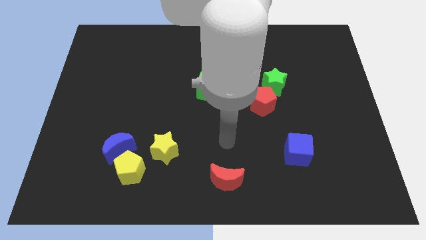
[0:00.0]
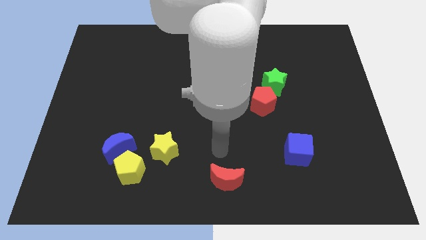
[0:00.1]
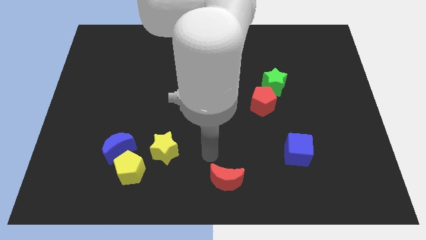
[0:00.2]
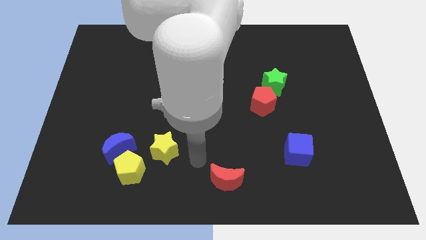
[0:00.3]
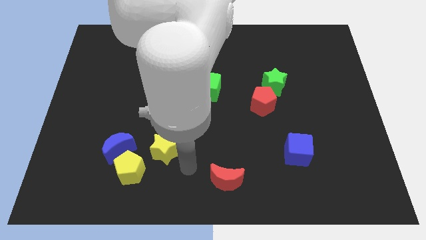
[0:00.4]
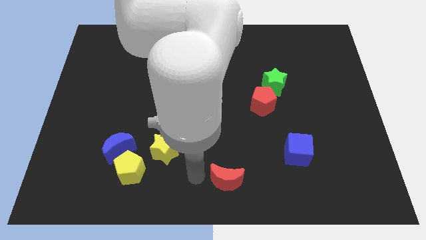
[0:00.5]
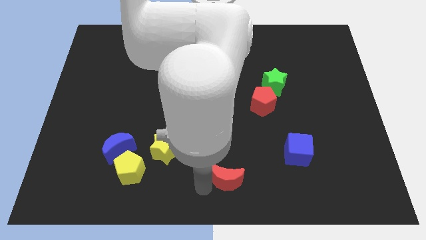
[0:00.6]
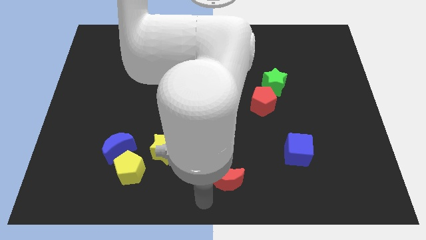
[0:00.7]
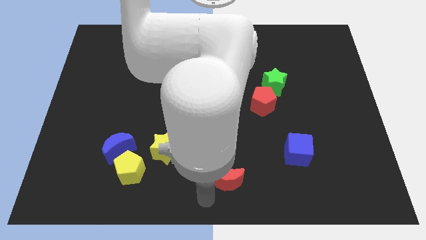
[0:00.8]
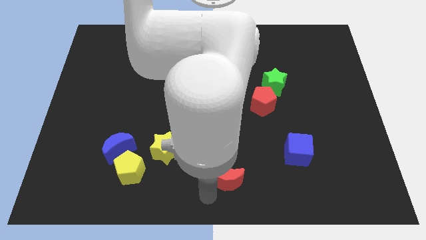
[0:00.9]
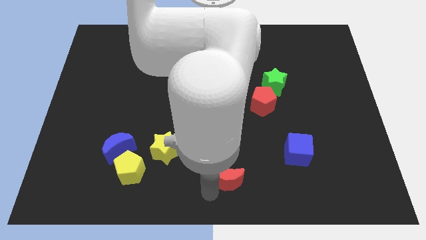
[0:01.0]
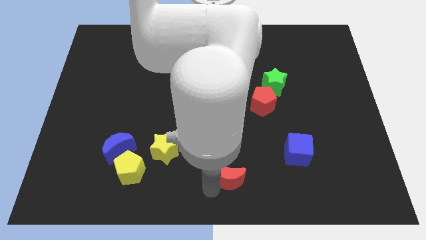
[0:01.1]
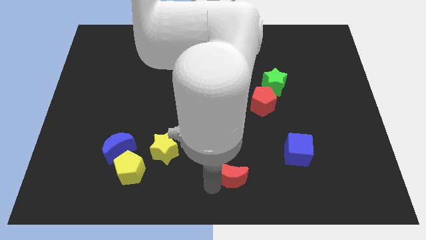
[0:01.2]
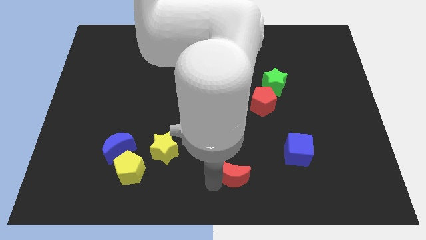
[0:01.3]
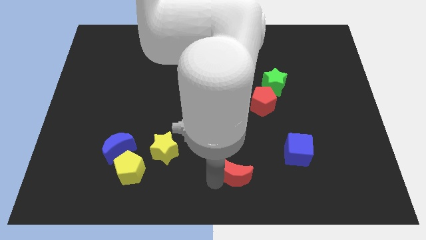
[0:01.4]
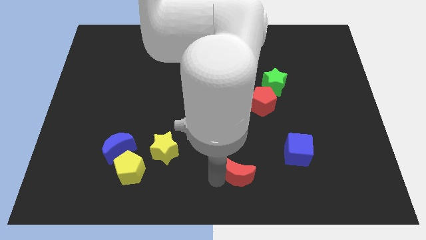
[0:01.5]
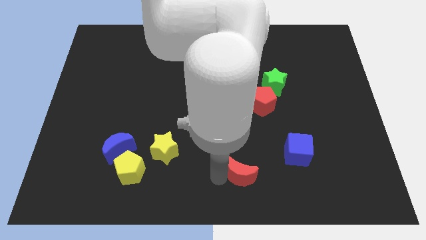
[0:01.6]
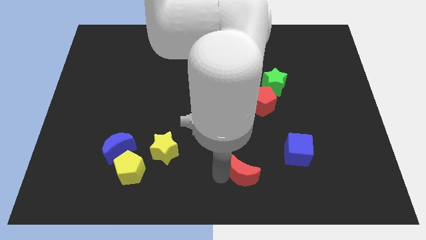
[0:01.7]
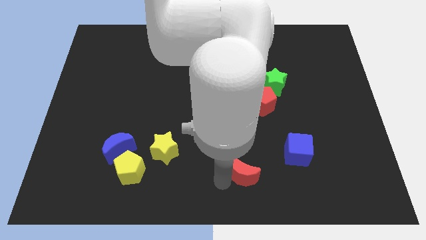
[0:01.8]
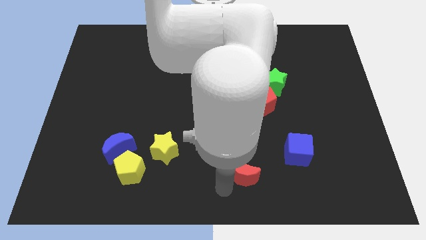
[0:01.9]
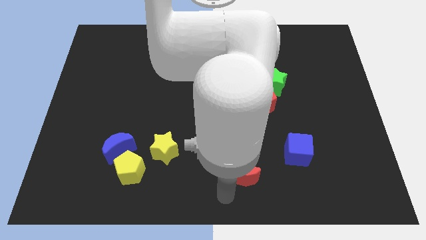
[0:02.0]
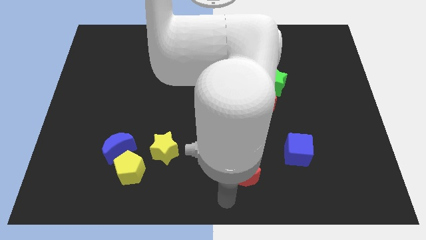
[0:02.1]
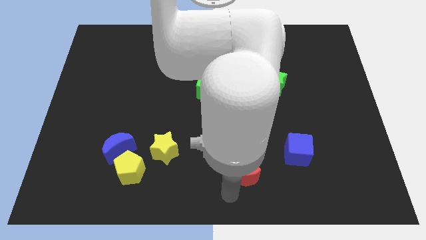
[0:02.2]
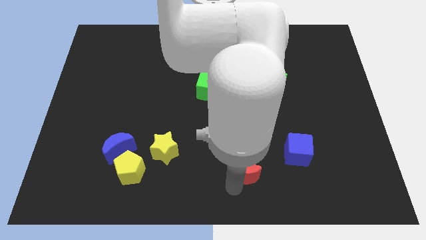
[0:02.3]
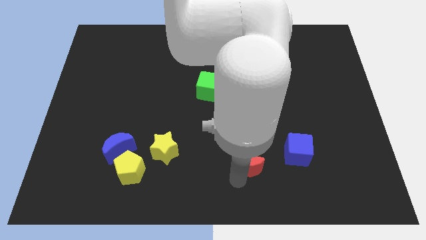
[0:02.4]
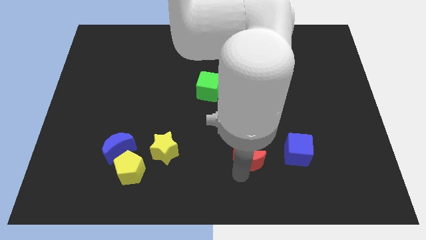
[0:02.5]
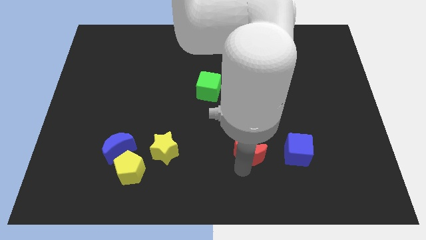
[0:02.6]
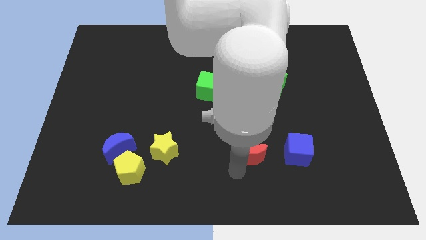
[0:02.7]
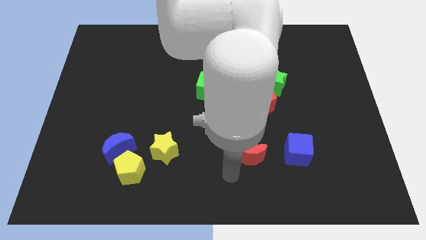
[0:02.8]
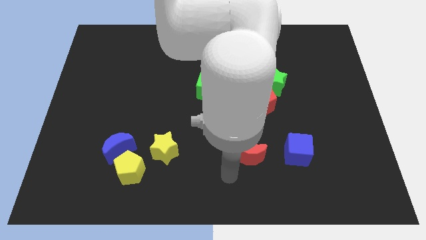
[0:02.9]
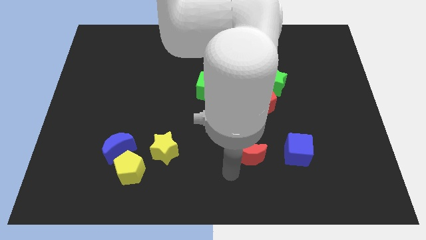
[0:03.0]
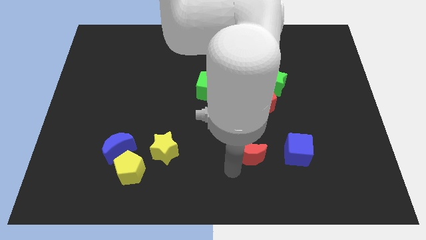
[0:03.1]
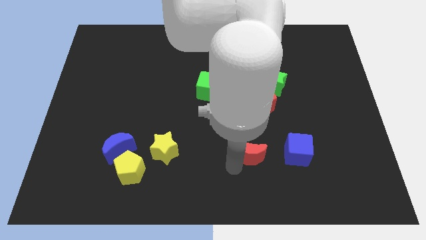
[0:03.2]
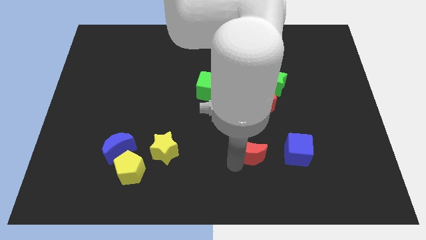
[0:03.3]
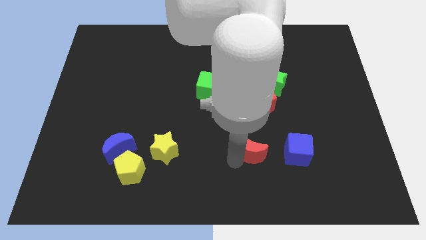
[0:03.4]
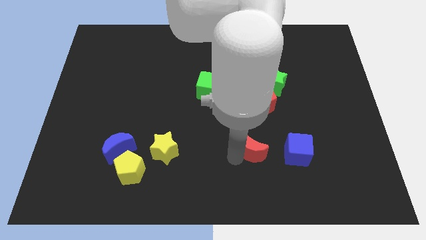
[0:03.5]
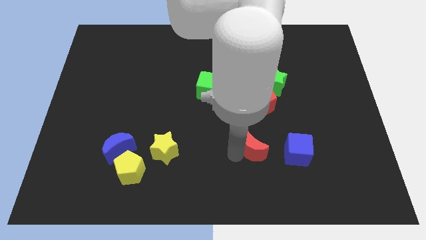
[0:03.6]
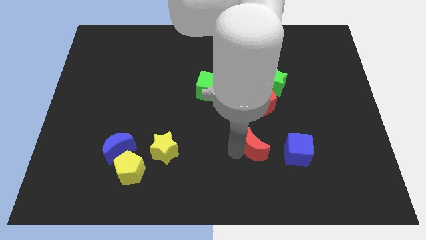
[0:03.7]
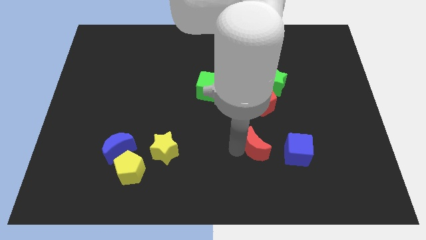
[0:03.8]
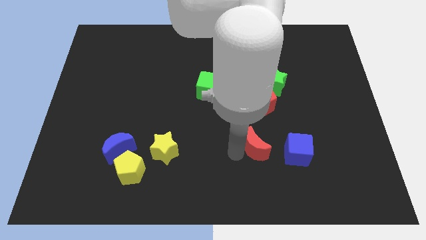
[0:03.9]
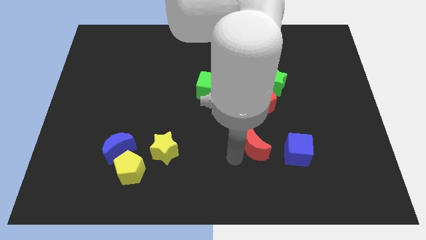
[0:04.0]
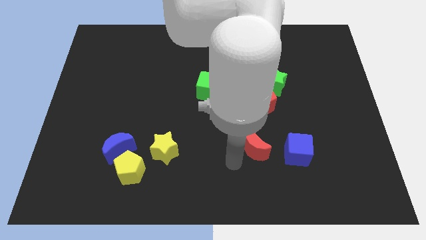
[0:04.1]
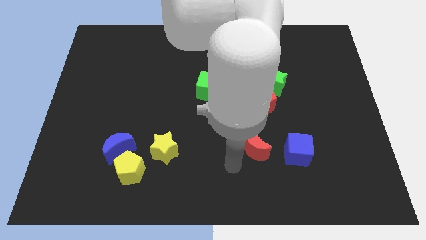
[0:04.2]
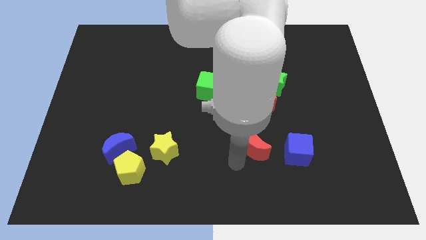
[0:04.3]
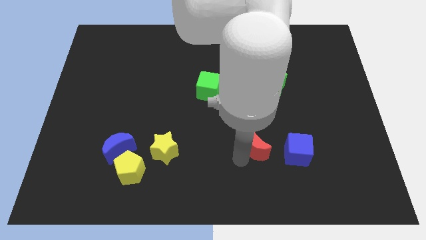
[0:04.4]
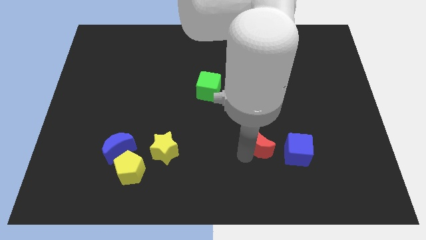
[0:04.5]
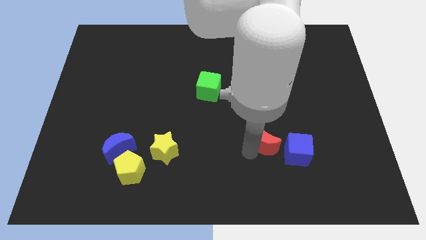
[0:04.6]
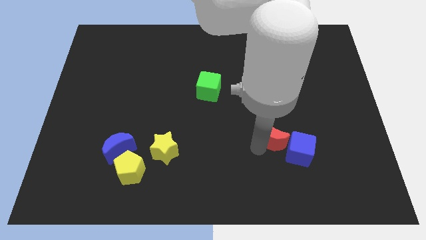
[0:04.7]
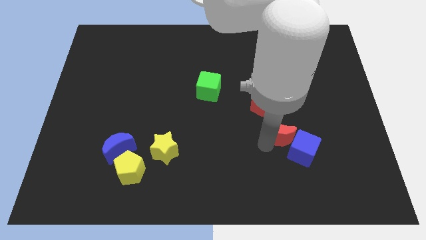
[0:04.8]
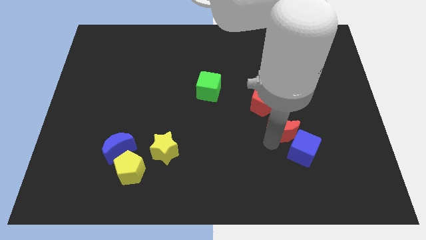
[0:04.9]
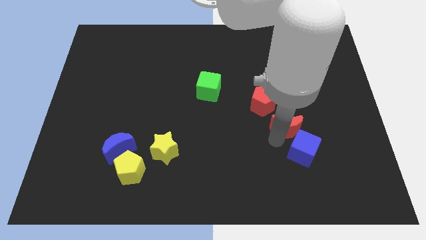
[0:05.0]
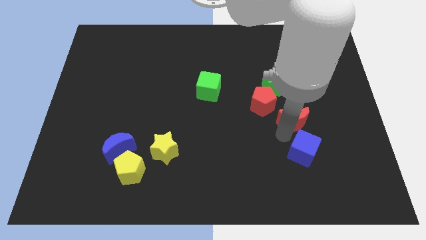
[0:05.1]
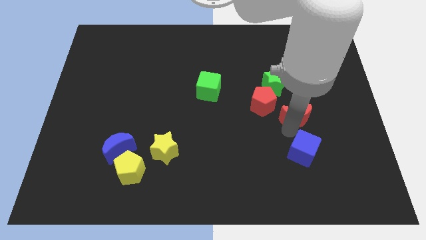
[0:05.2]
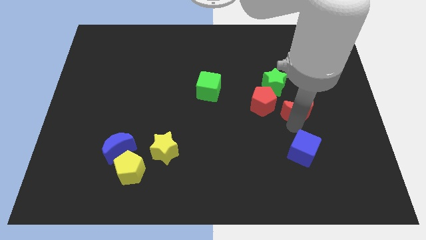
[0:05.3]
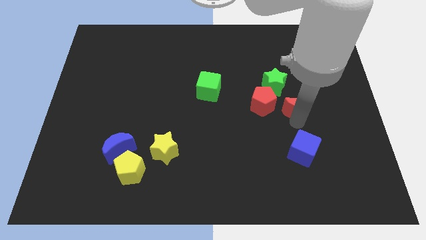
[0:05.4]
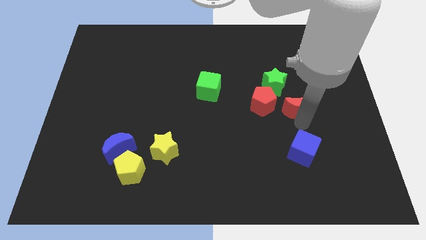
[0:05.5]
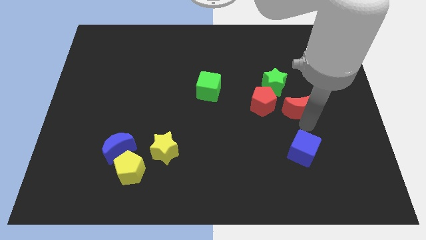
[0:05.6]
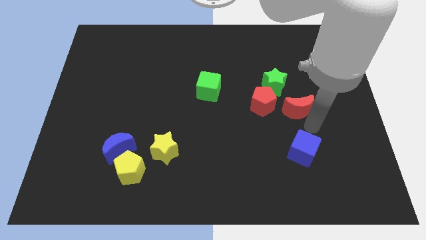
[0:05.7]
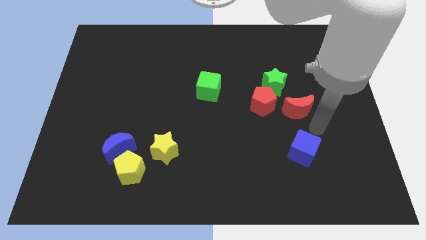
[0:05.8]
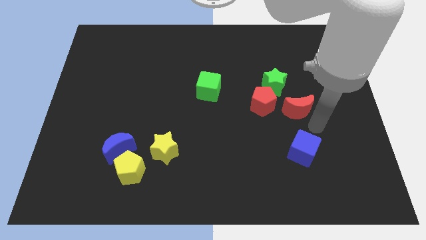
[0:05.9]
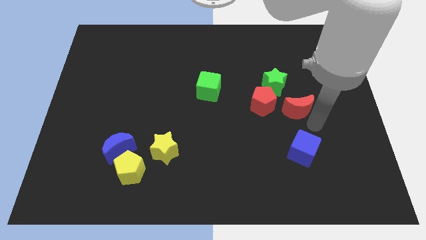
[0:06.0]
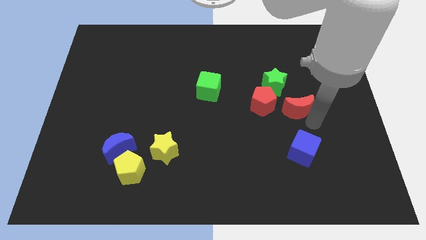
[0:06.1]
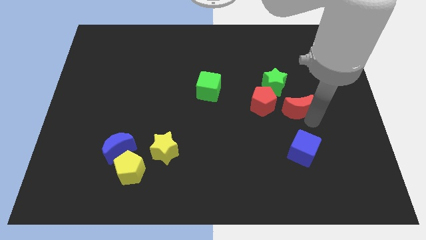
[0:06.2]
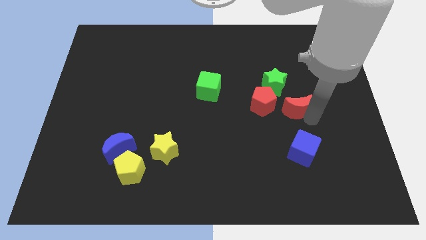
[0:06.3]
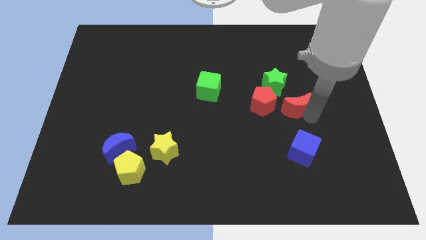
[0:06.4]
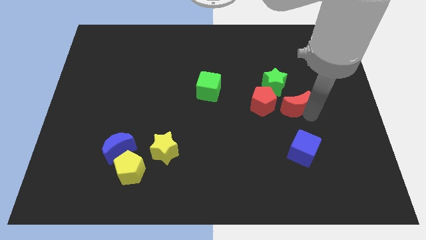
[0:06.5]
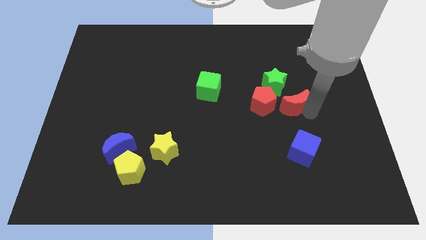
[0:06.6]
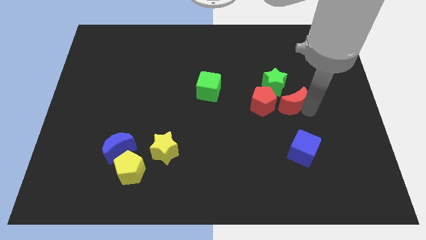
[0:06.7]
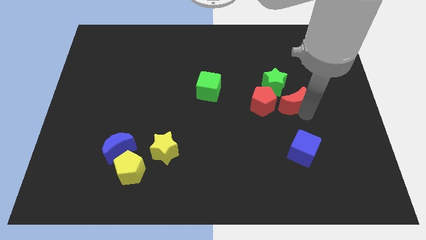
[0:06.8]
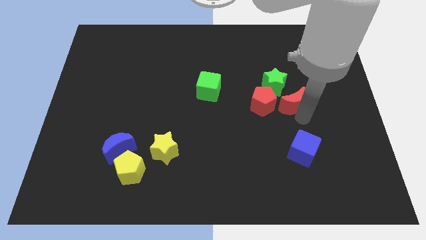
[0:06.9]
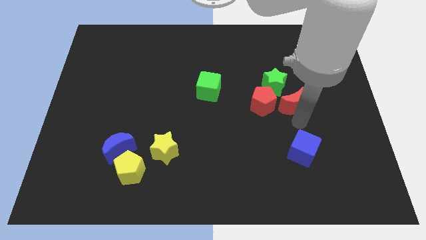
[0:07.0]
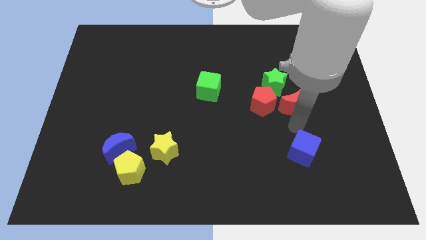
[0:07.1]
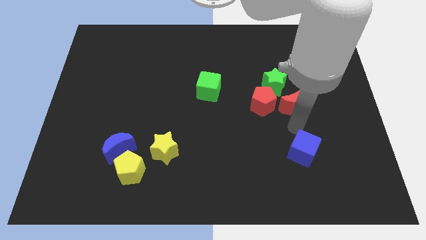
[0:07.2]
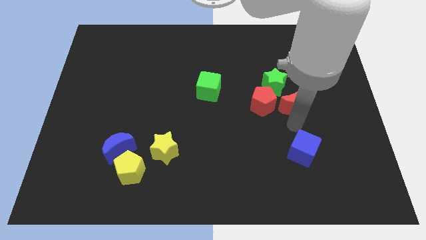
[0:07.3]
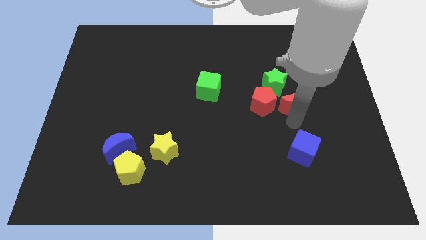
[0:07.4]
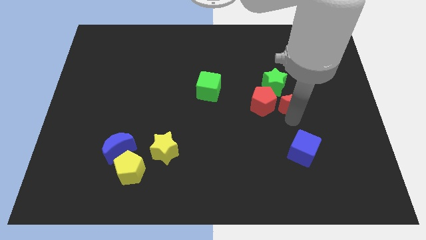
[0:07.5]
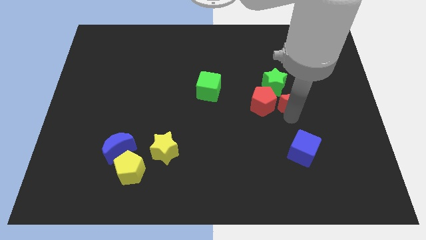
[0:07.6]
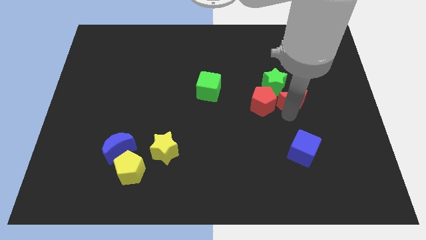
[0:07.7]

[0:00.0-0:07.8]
put the red moon to the top right of the red pentagon

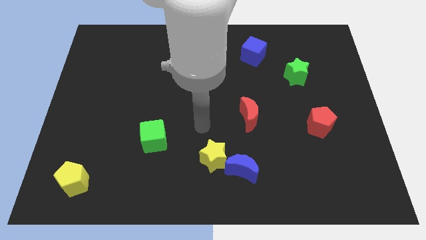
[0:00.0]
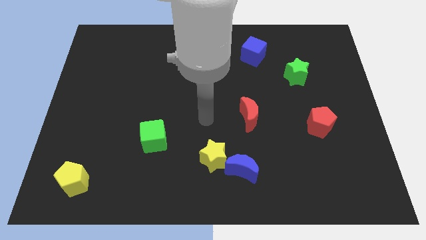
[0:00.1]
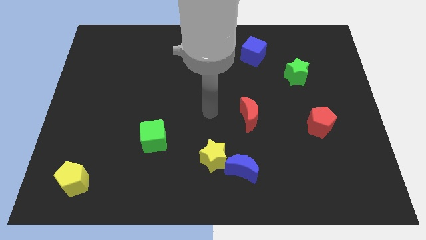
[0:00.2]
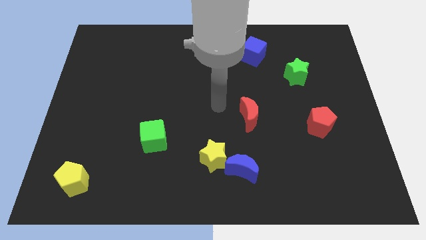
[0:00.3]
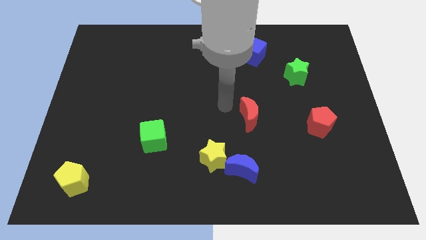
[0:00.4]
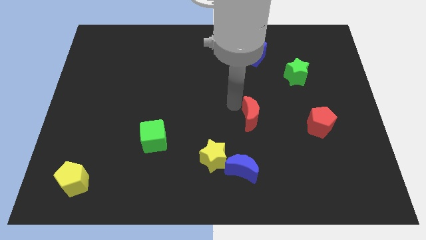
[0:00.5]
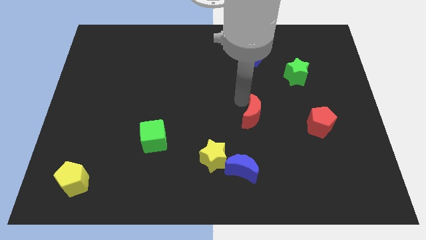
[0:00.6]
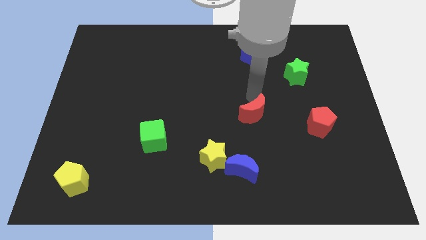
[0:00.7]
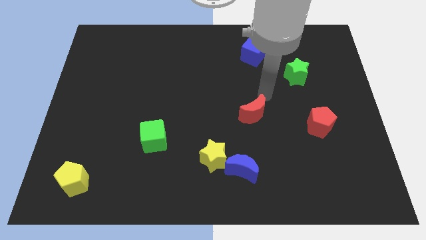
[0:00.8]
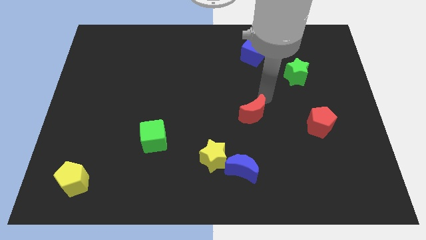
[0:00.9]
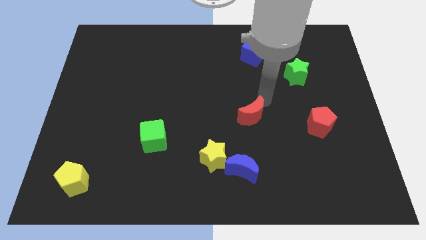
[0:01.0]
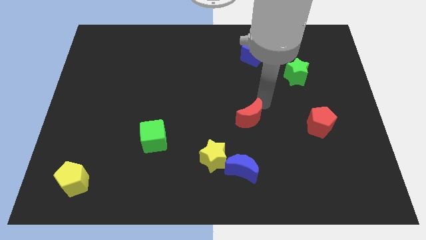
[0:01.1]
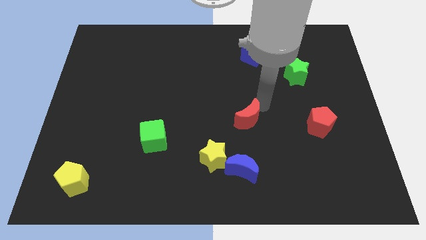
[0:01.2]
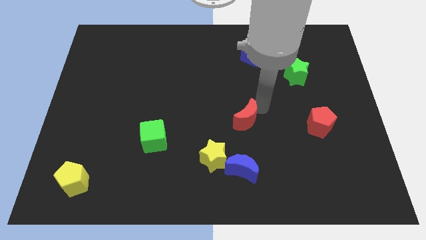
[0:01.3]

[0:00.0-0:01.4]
push the red moon to the top right side of the yellow star
